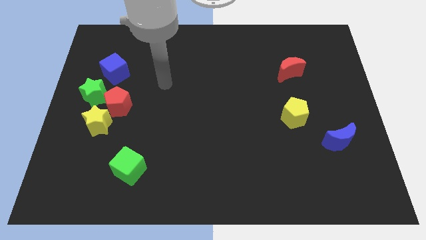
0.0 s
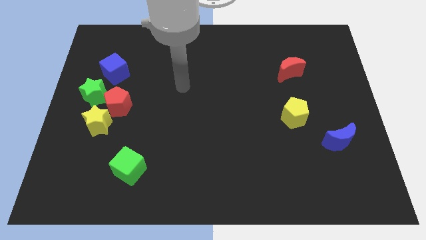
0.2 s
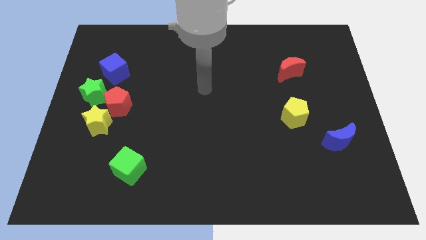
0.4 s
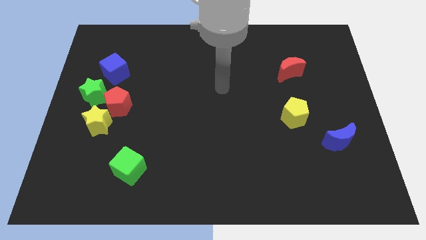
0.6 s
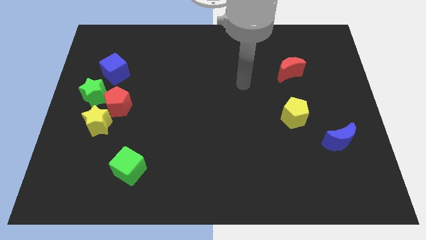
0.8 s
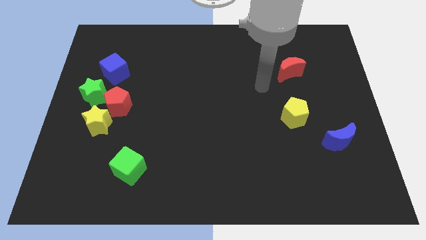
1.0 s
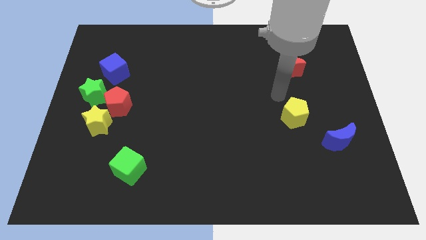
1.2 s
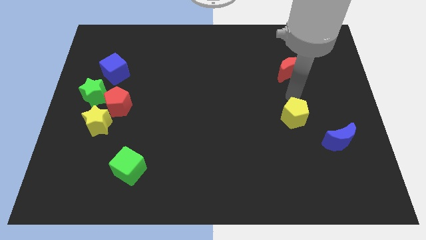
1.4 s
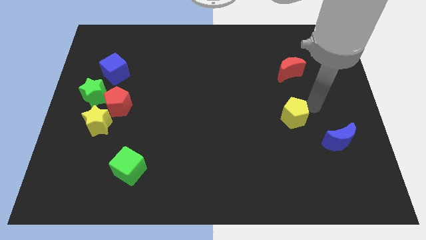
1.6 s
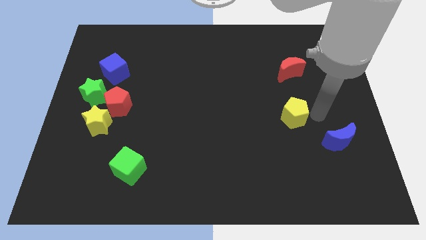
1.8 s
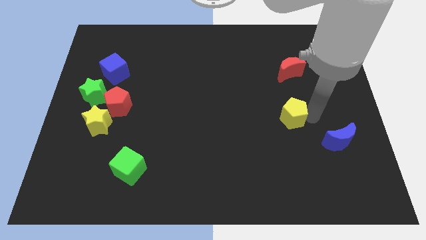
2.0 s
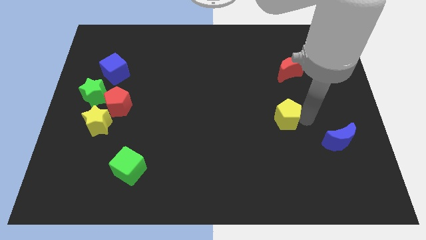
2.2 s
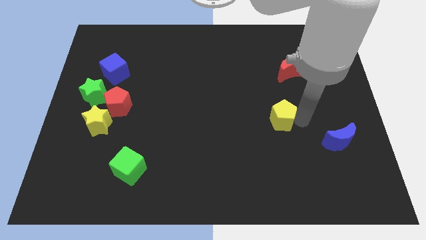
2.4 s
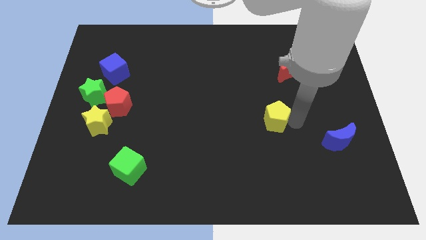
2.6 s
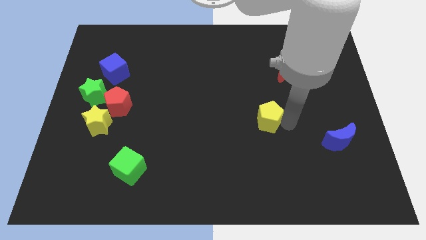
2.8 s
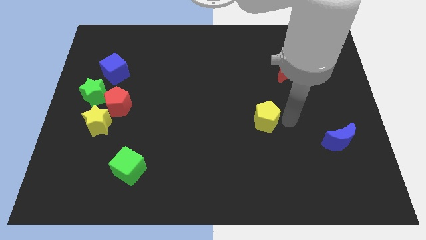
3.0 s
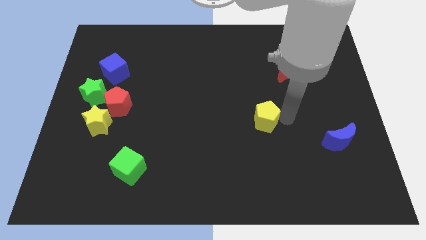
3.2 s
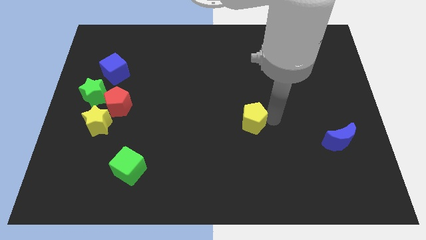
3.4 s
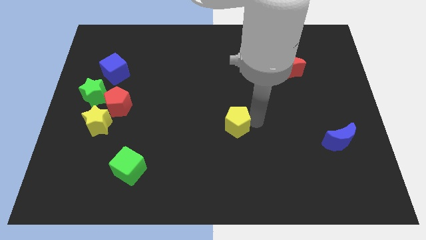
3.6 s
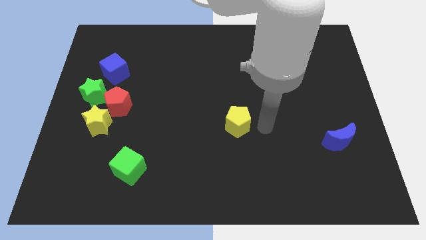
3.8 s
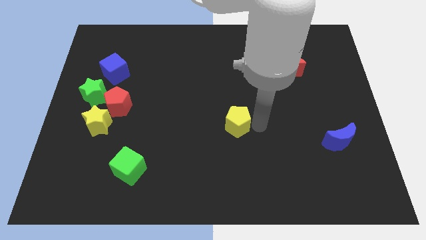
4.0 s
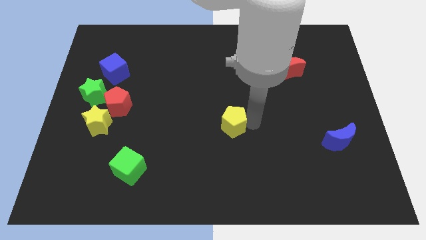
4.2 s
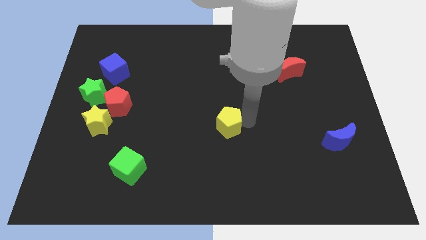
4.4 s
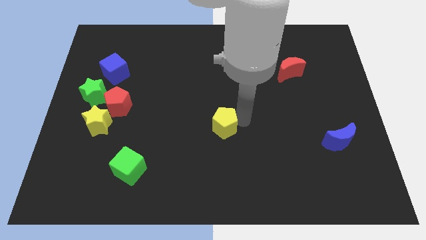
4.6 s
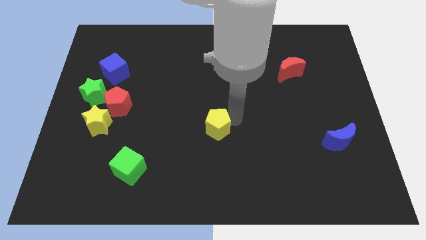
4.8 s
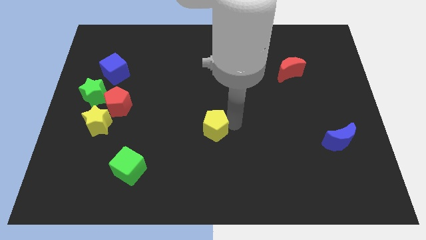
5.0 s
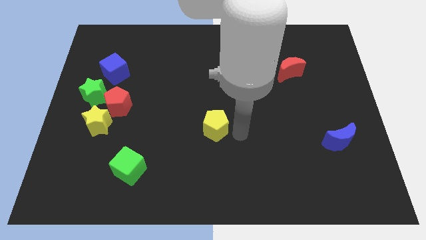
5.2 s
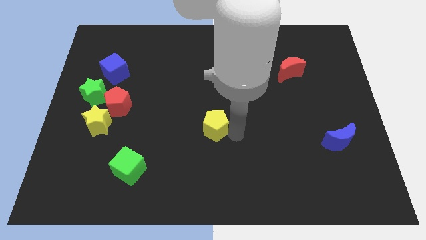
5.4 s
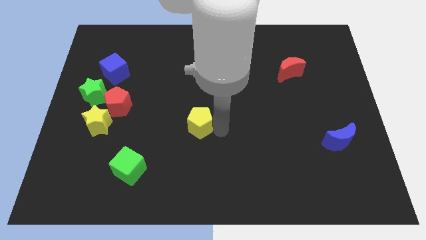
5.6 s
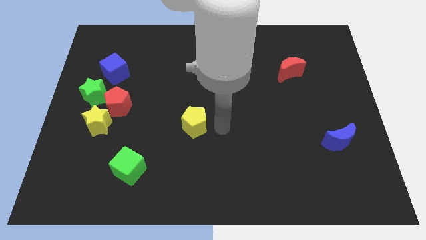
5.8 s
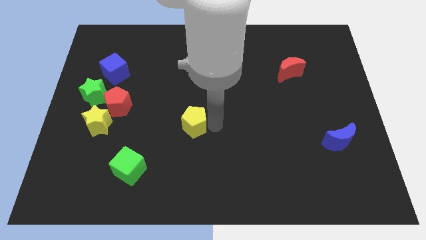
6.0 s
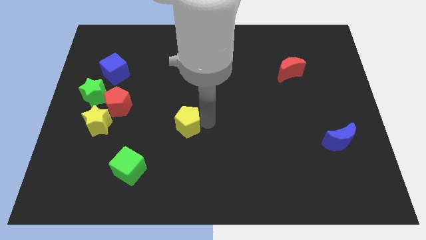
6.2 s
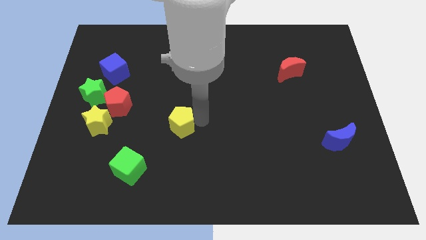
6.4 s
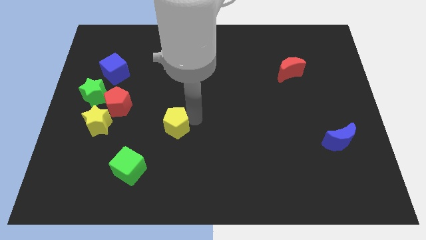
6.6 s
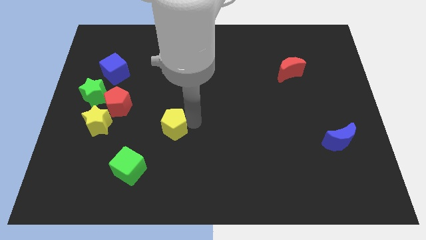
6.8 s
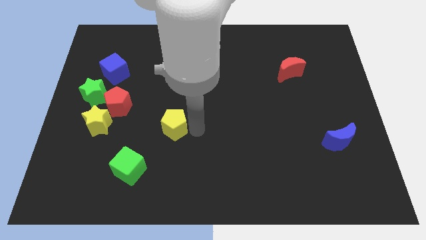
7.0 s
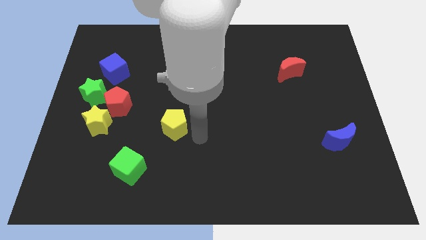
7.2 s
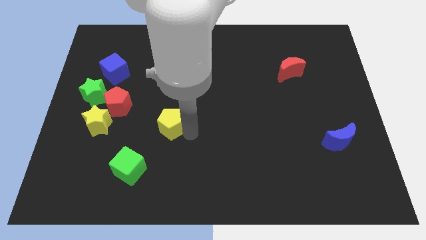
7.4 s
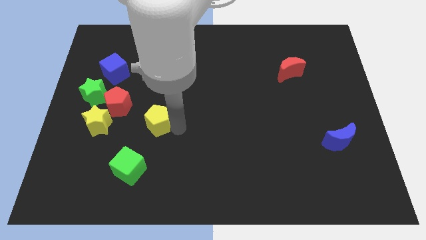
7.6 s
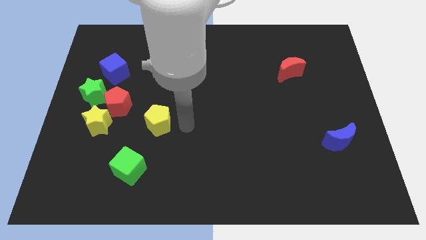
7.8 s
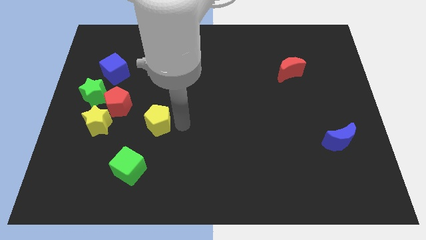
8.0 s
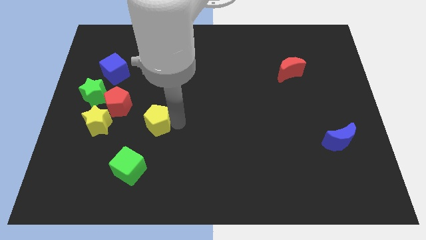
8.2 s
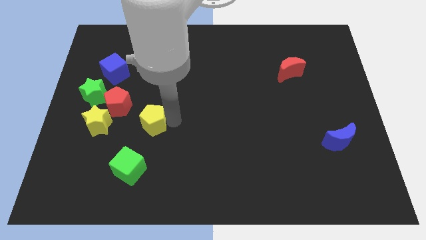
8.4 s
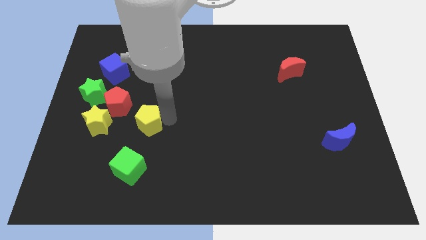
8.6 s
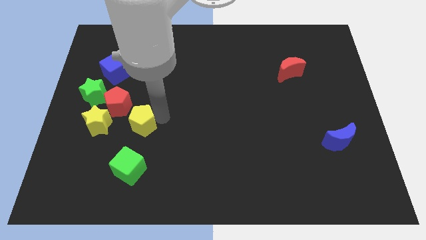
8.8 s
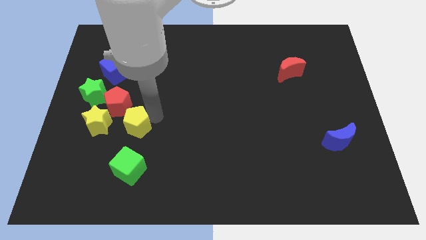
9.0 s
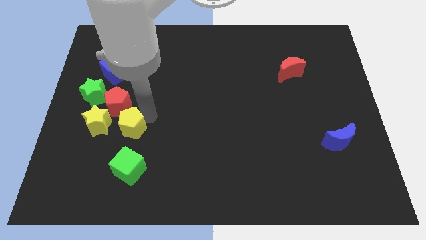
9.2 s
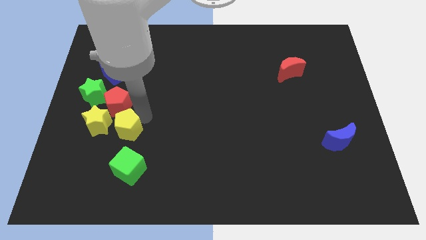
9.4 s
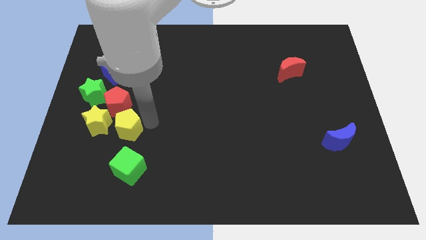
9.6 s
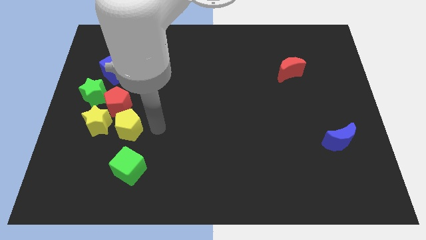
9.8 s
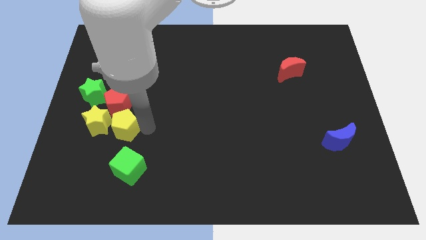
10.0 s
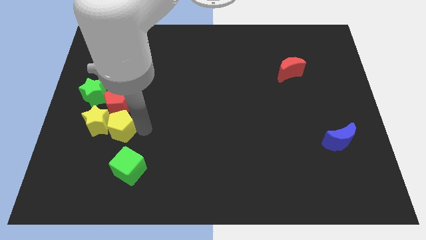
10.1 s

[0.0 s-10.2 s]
move the yellow pentagon next to the yellow star

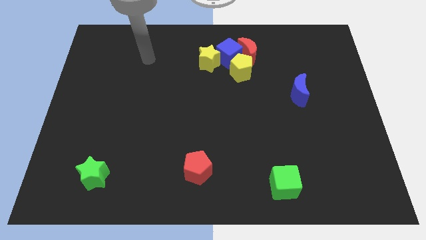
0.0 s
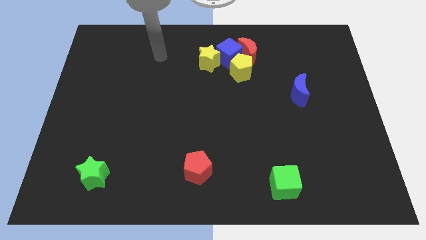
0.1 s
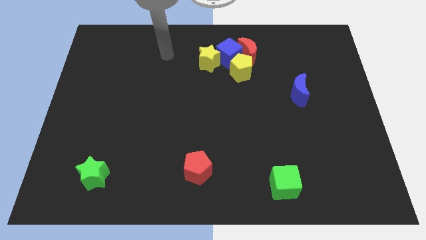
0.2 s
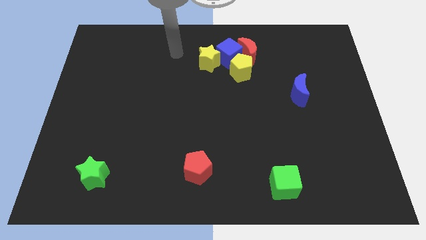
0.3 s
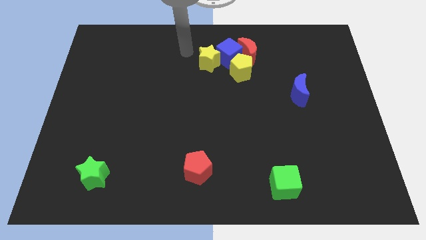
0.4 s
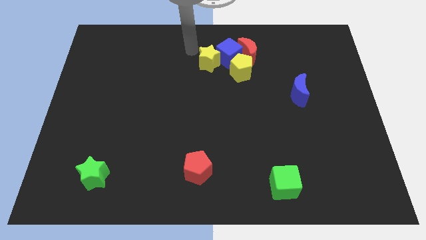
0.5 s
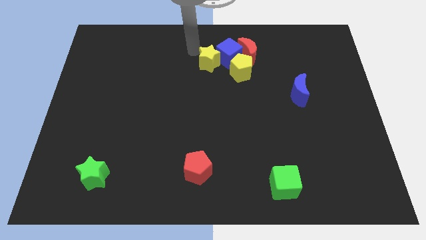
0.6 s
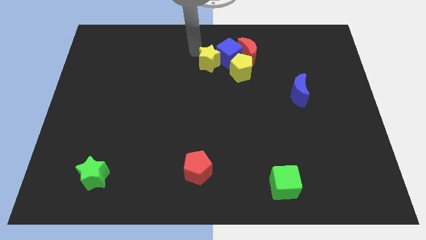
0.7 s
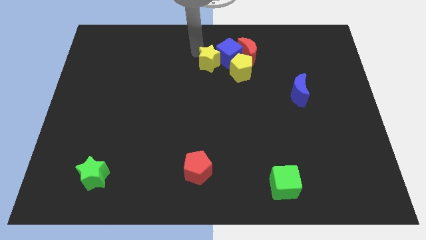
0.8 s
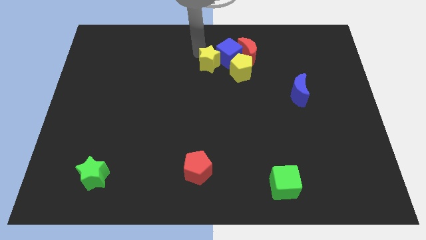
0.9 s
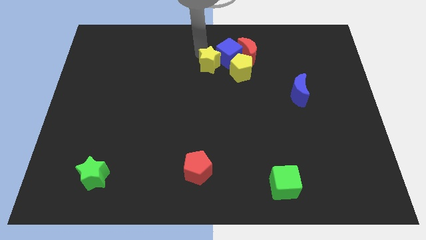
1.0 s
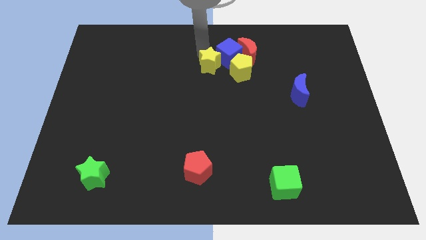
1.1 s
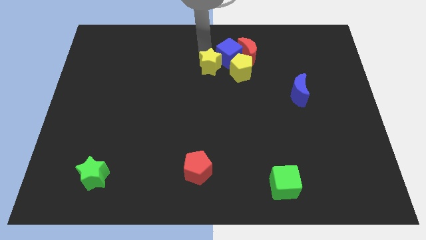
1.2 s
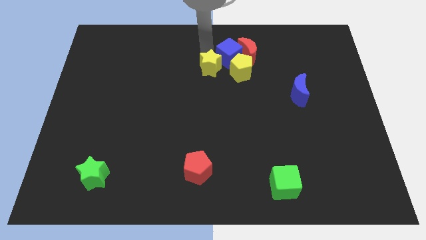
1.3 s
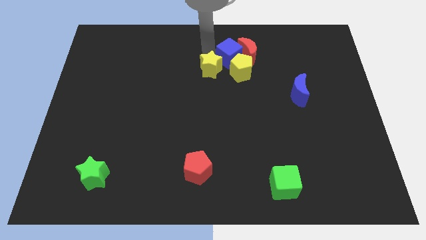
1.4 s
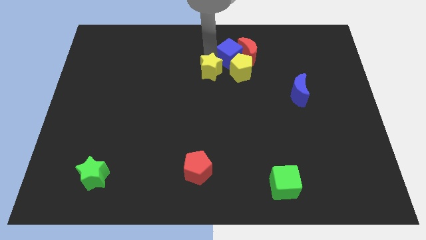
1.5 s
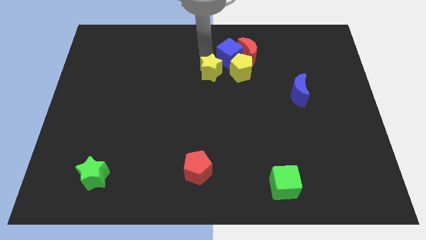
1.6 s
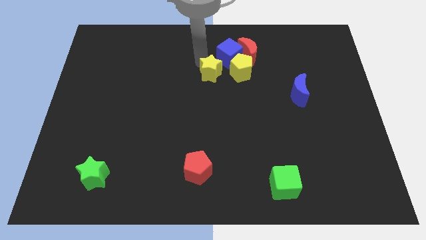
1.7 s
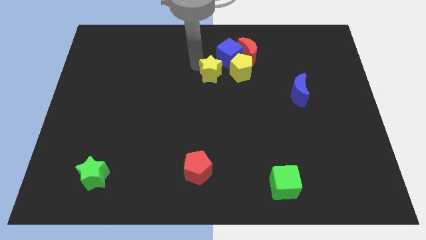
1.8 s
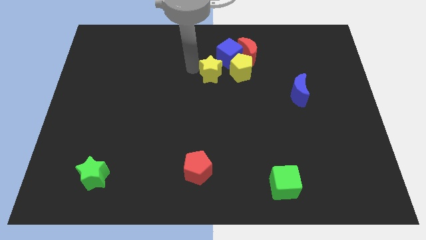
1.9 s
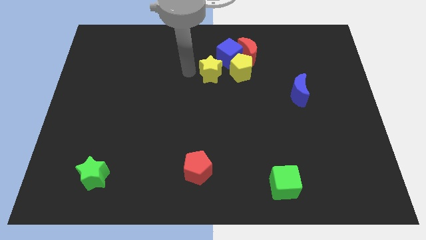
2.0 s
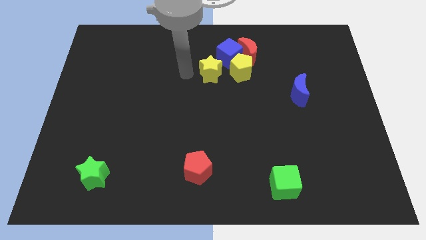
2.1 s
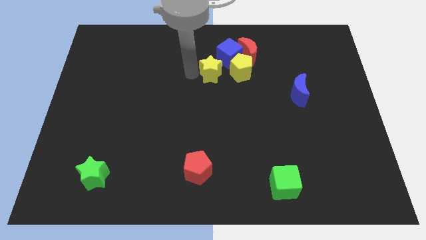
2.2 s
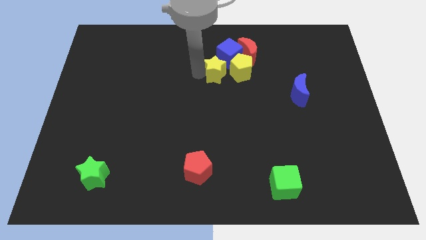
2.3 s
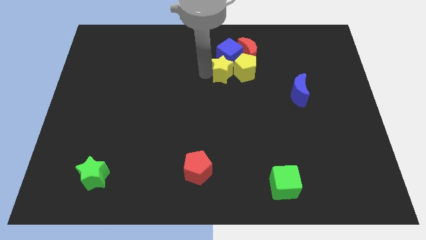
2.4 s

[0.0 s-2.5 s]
put the yellow star next to the yellow pentagon
